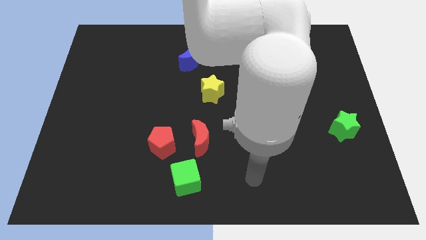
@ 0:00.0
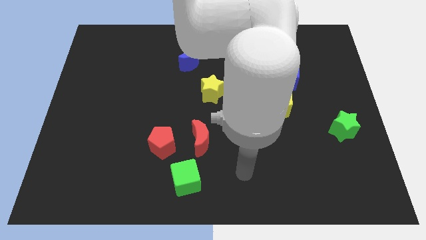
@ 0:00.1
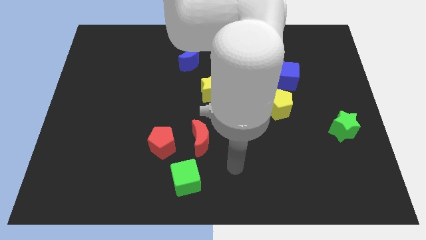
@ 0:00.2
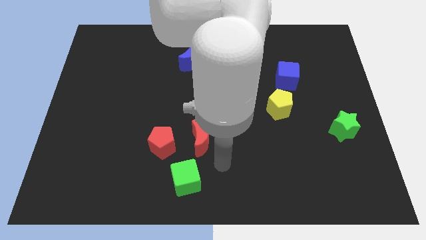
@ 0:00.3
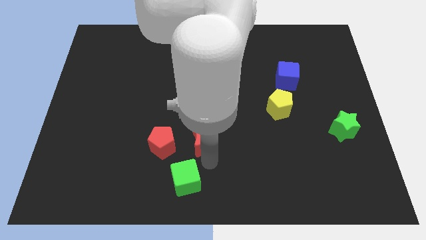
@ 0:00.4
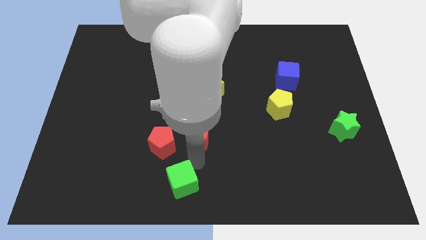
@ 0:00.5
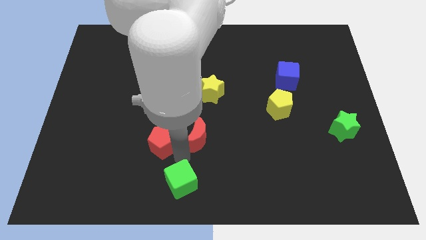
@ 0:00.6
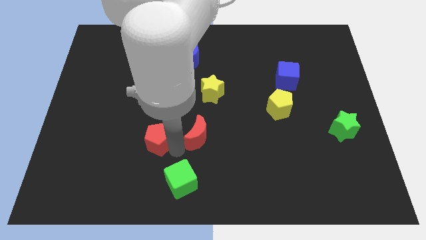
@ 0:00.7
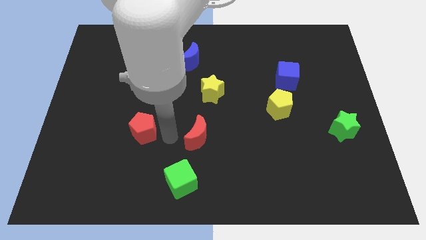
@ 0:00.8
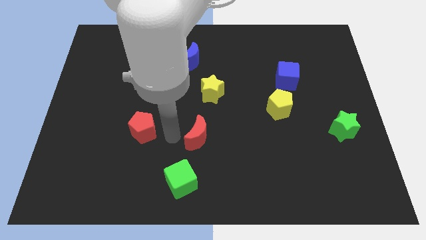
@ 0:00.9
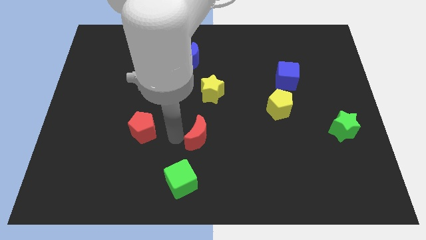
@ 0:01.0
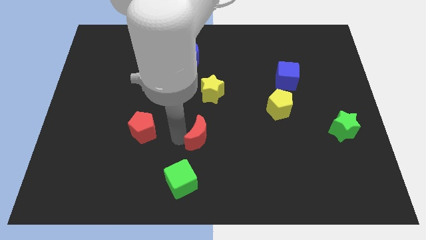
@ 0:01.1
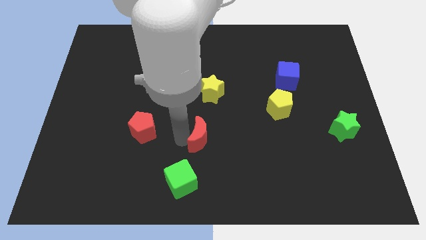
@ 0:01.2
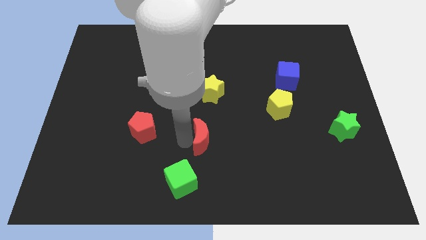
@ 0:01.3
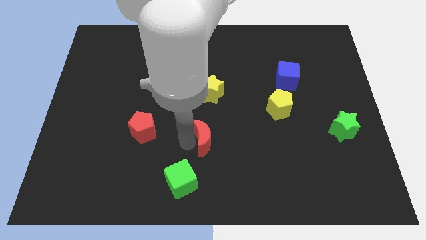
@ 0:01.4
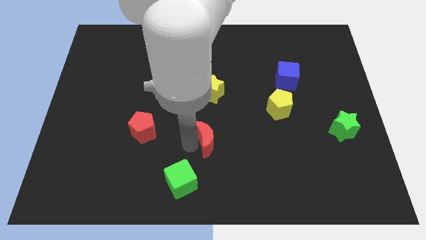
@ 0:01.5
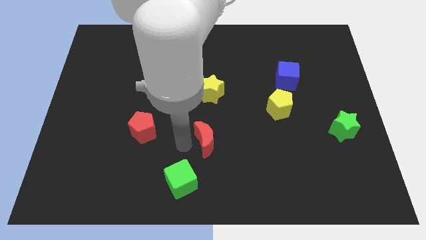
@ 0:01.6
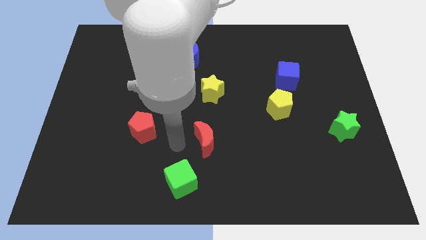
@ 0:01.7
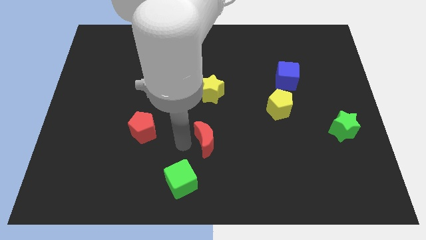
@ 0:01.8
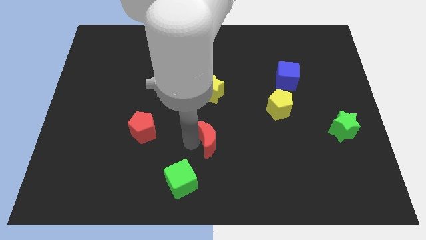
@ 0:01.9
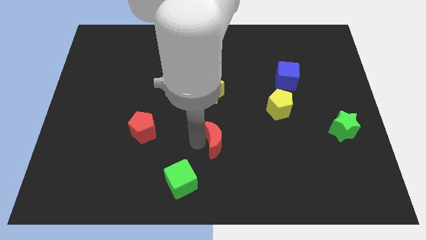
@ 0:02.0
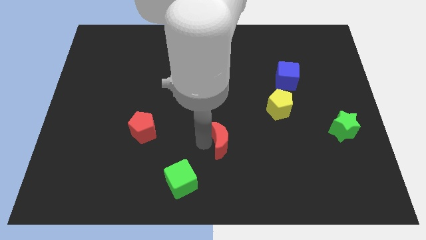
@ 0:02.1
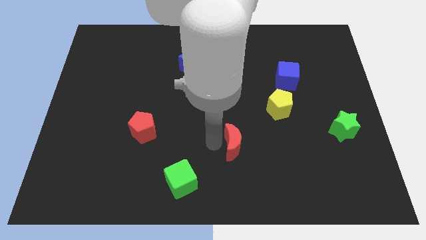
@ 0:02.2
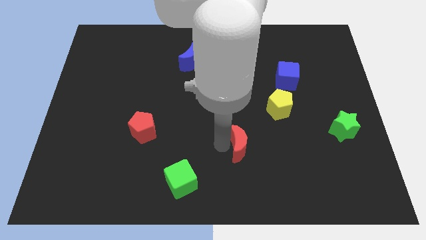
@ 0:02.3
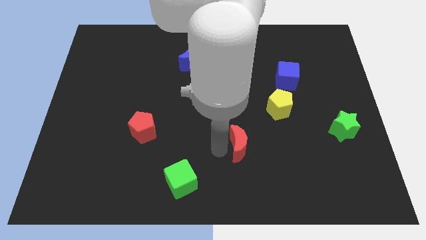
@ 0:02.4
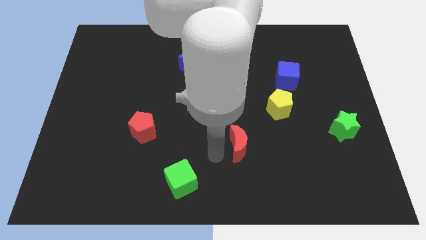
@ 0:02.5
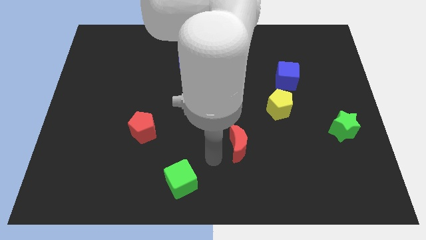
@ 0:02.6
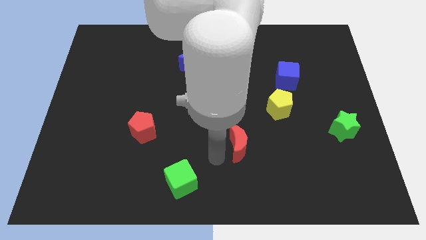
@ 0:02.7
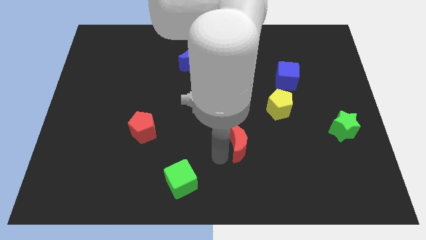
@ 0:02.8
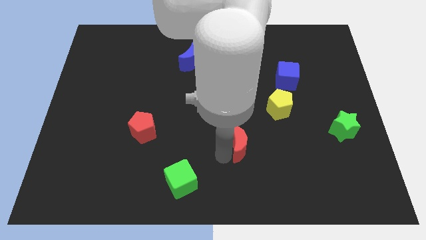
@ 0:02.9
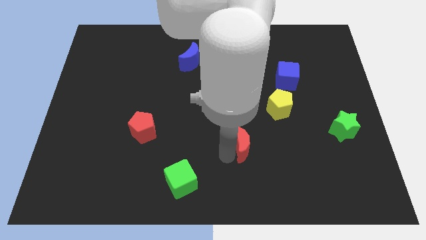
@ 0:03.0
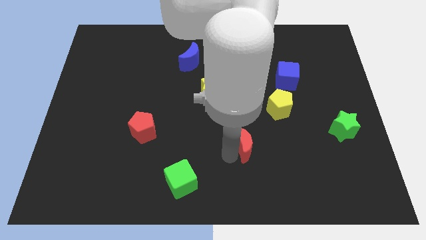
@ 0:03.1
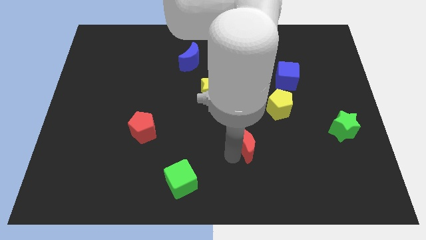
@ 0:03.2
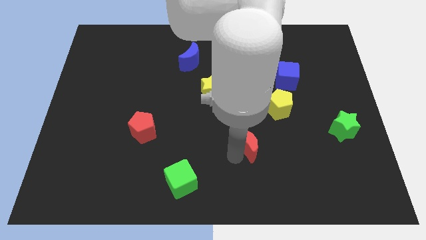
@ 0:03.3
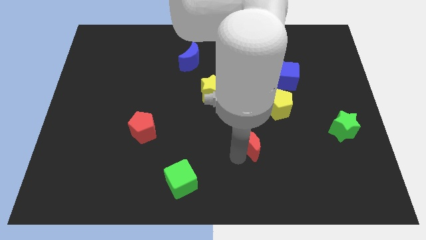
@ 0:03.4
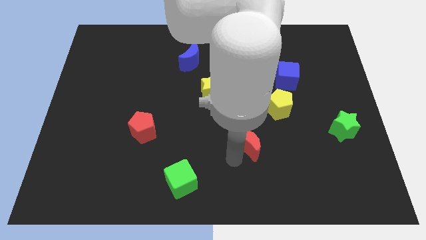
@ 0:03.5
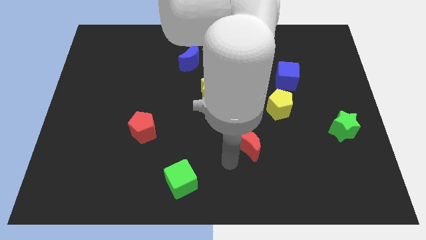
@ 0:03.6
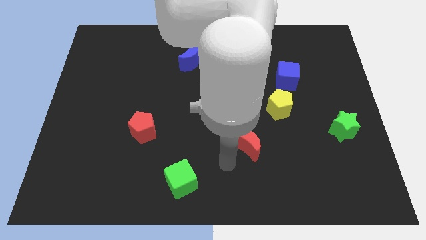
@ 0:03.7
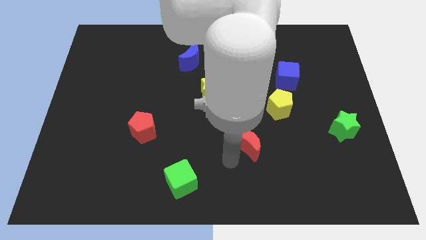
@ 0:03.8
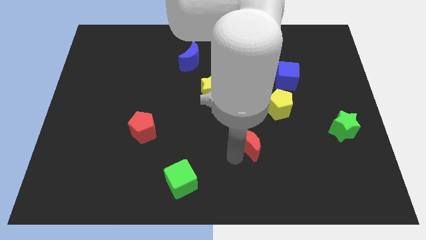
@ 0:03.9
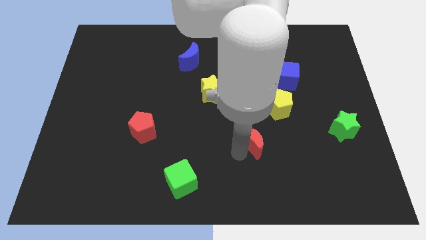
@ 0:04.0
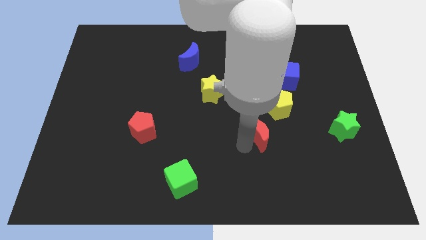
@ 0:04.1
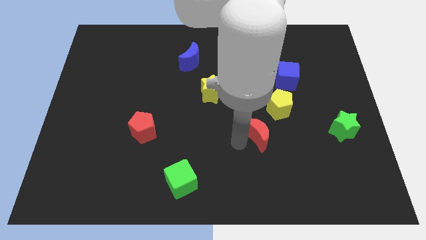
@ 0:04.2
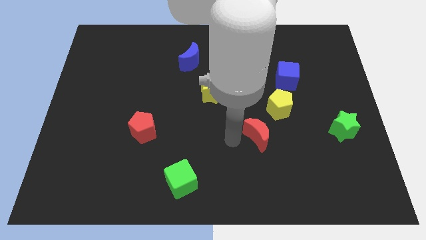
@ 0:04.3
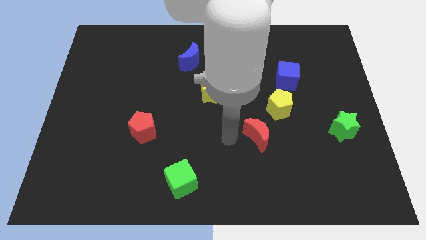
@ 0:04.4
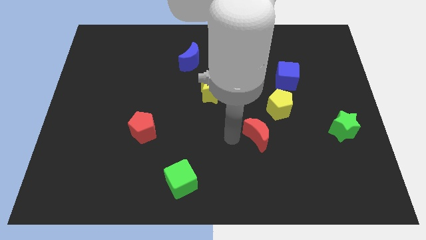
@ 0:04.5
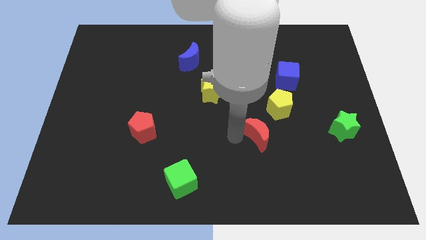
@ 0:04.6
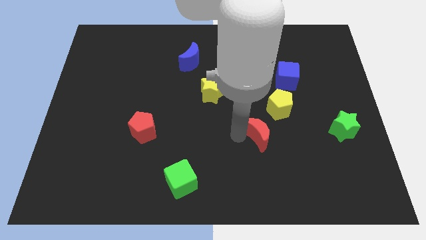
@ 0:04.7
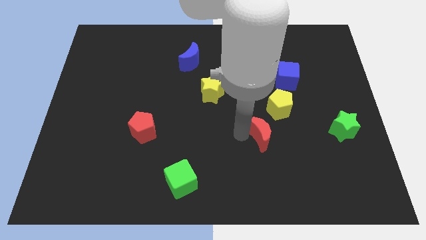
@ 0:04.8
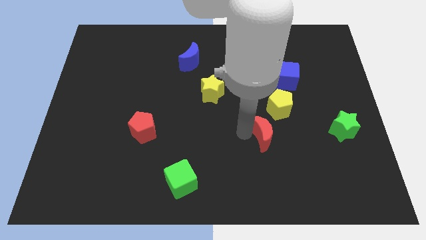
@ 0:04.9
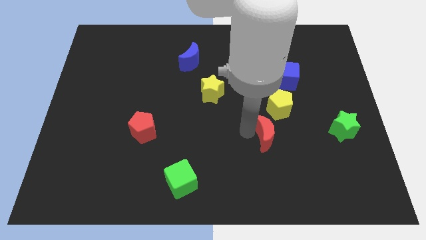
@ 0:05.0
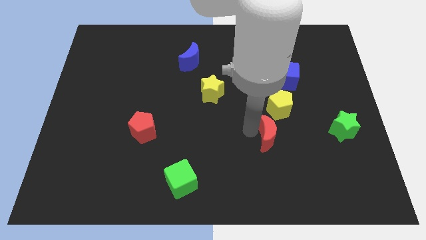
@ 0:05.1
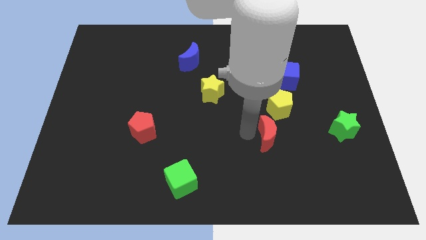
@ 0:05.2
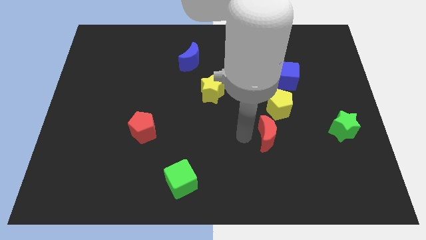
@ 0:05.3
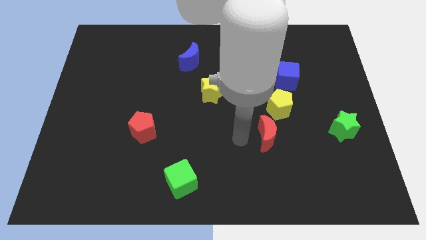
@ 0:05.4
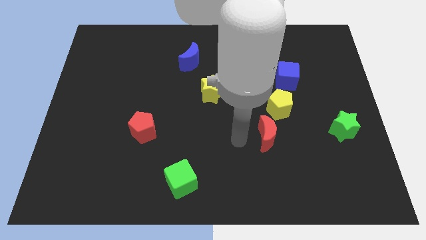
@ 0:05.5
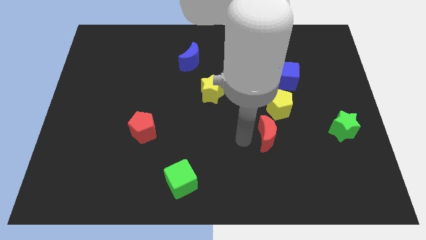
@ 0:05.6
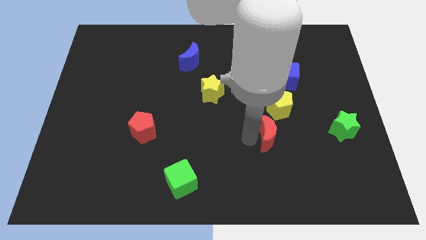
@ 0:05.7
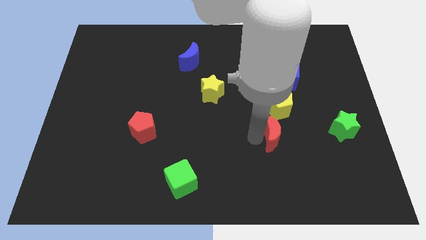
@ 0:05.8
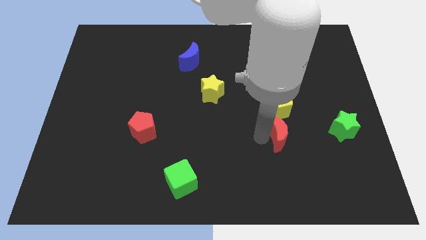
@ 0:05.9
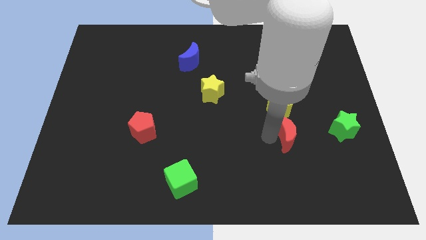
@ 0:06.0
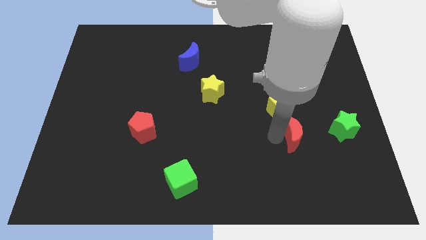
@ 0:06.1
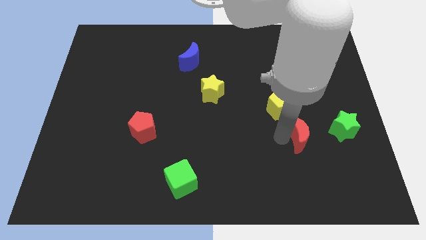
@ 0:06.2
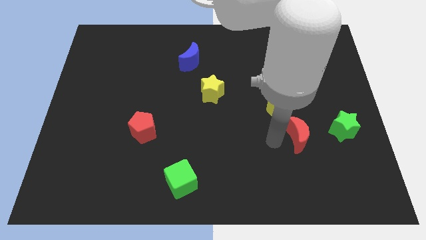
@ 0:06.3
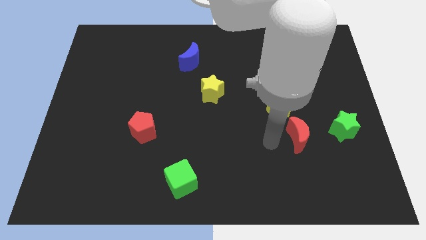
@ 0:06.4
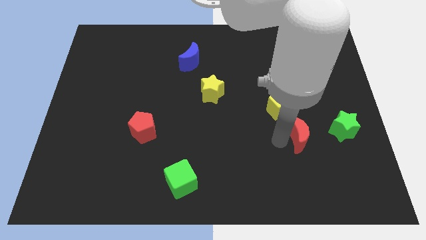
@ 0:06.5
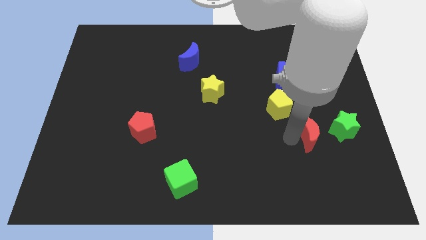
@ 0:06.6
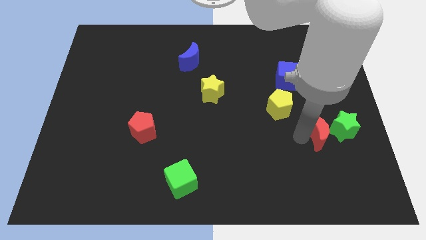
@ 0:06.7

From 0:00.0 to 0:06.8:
move the red moon to the green star
